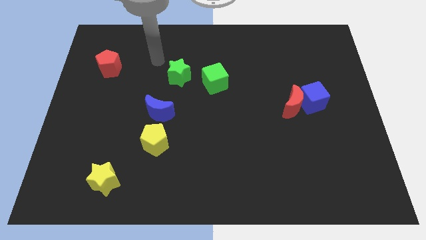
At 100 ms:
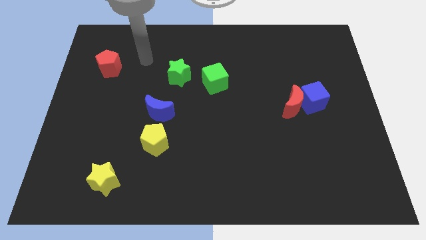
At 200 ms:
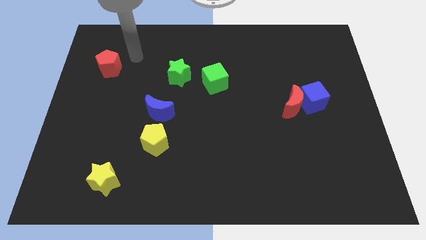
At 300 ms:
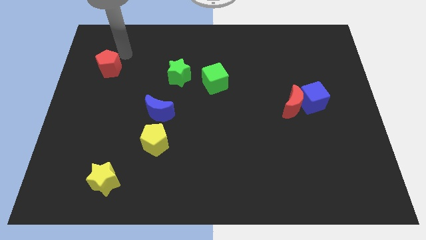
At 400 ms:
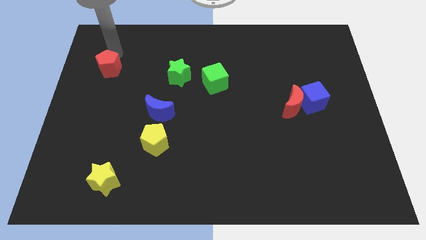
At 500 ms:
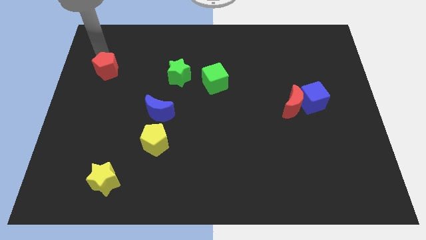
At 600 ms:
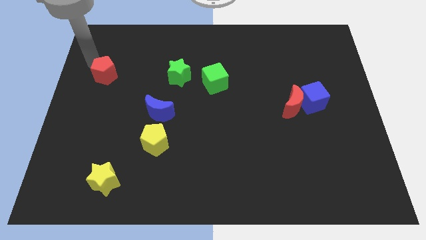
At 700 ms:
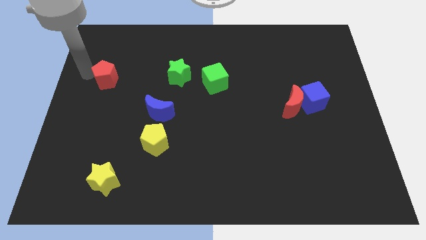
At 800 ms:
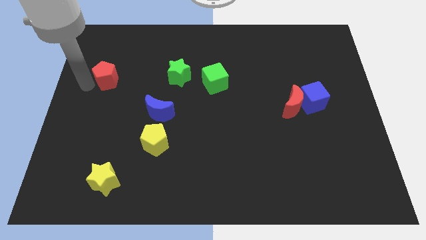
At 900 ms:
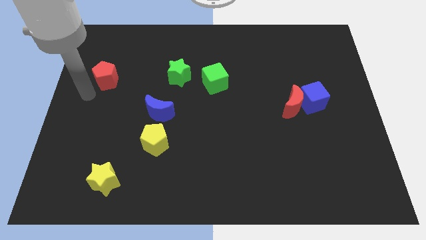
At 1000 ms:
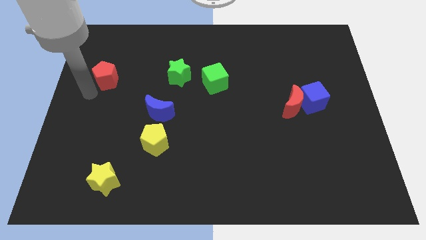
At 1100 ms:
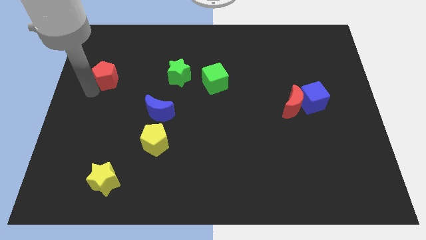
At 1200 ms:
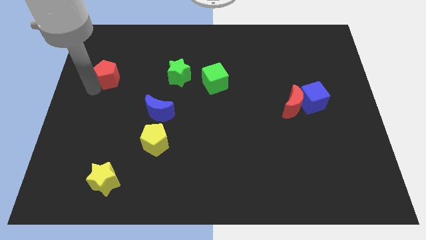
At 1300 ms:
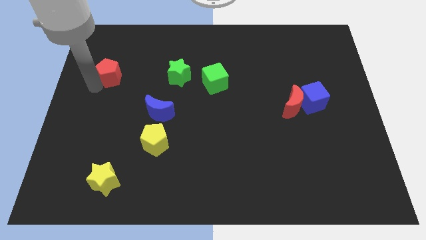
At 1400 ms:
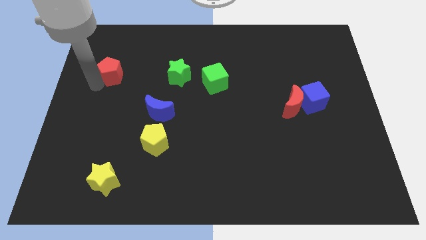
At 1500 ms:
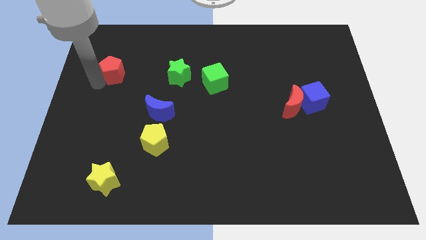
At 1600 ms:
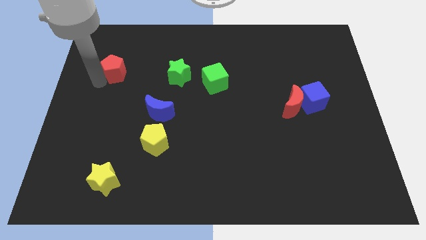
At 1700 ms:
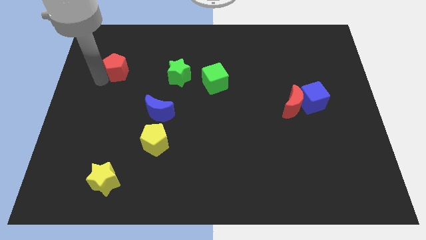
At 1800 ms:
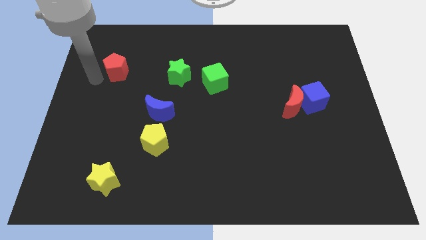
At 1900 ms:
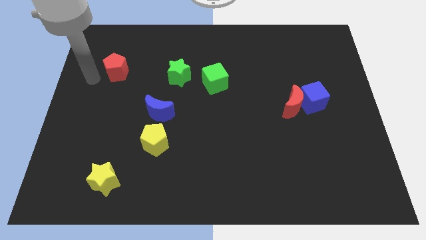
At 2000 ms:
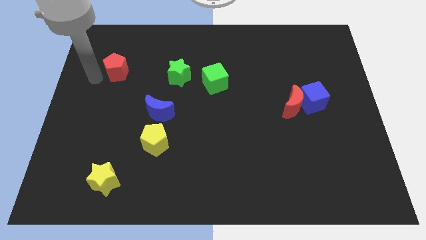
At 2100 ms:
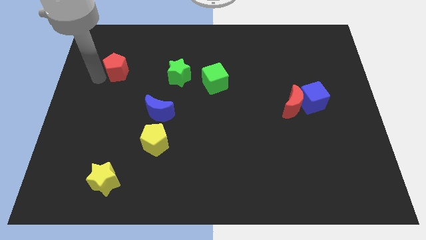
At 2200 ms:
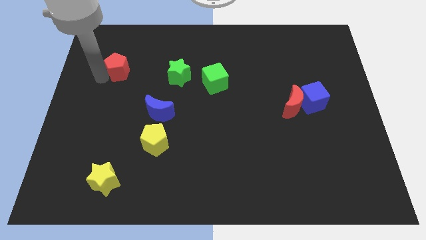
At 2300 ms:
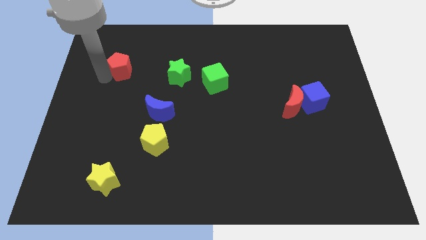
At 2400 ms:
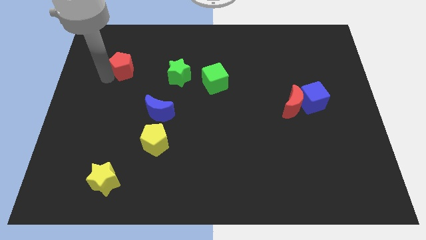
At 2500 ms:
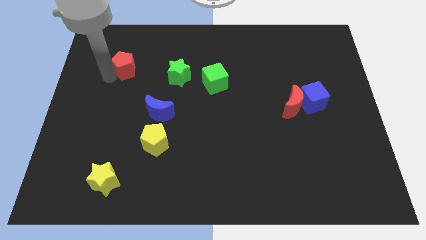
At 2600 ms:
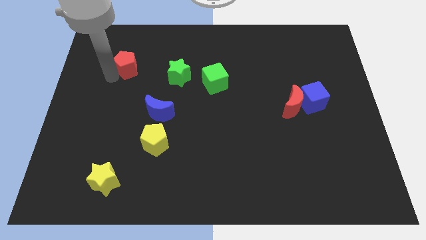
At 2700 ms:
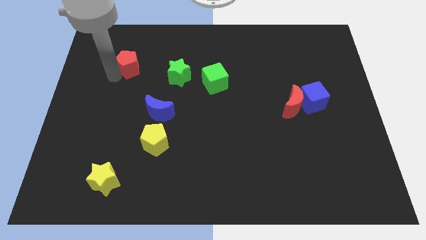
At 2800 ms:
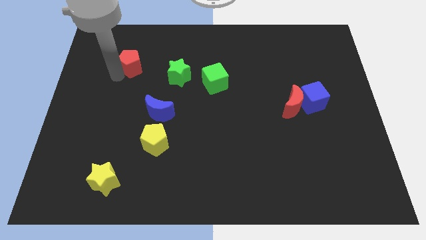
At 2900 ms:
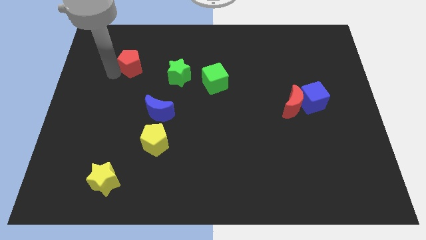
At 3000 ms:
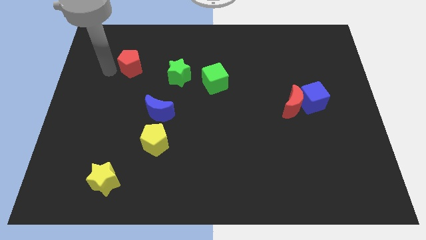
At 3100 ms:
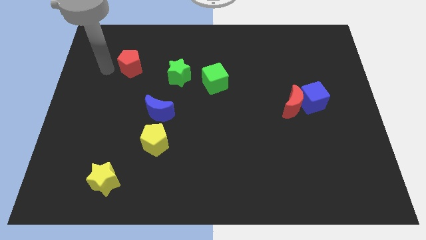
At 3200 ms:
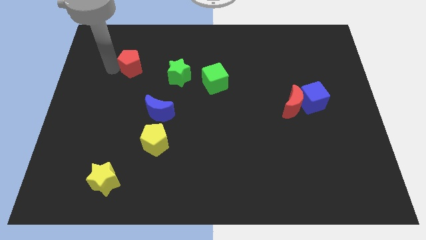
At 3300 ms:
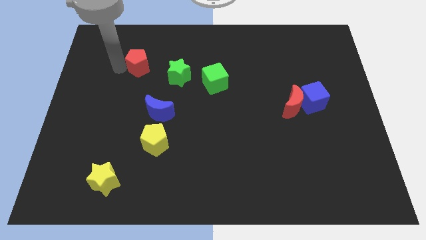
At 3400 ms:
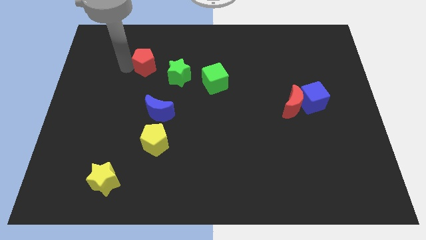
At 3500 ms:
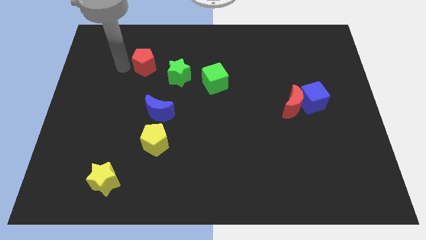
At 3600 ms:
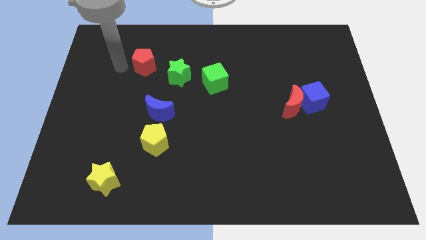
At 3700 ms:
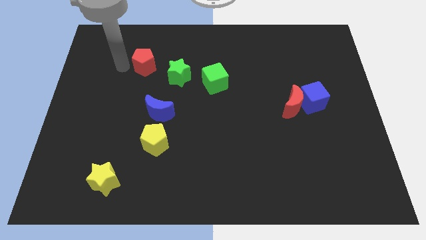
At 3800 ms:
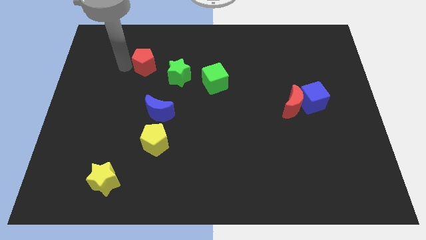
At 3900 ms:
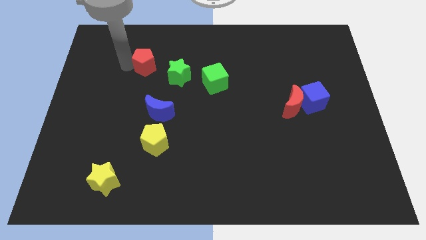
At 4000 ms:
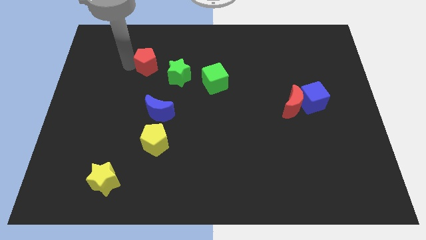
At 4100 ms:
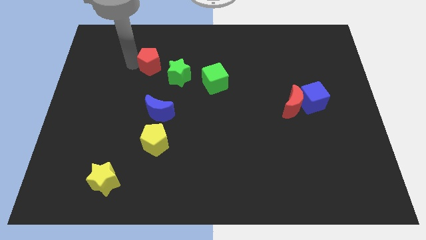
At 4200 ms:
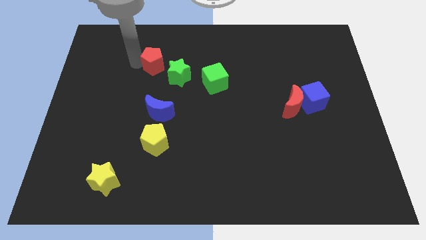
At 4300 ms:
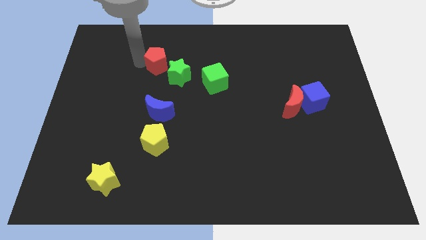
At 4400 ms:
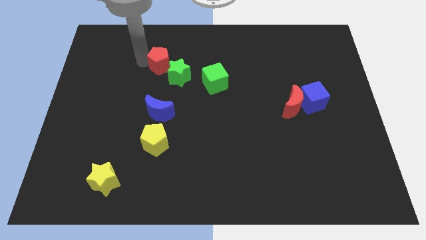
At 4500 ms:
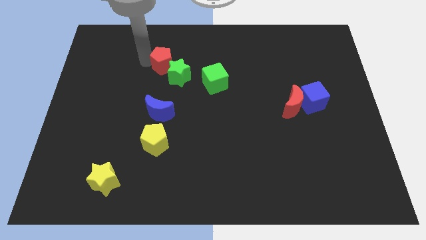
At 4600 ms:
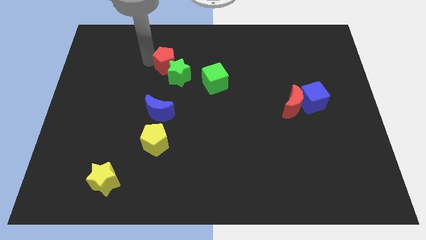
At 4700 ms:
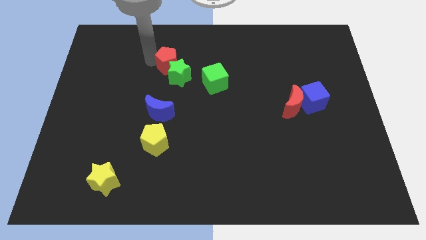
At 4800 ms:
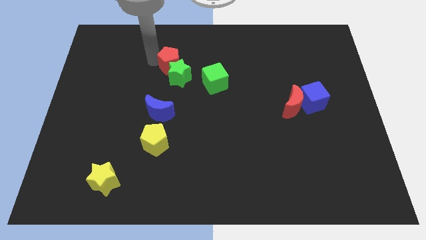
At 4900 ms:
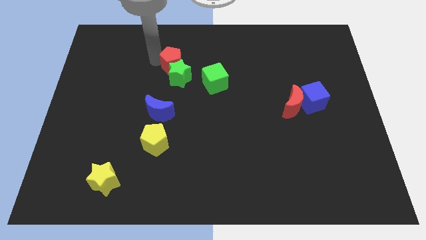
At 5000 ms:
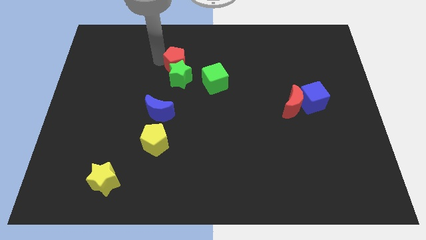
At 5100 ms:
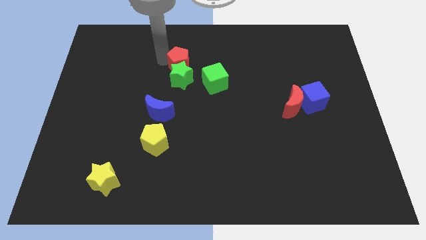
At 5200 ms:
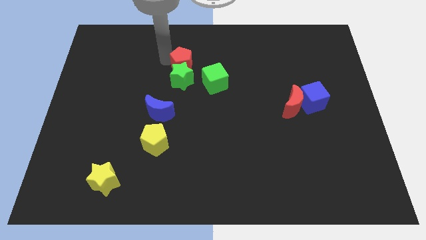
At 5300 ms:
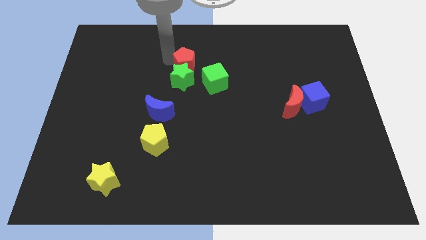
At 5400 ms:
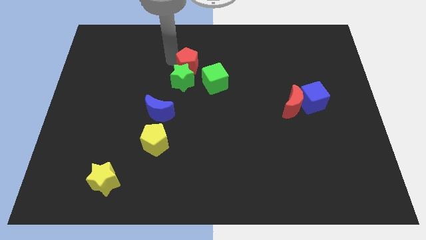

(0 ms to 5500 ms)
move the red pentagon right

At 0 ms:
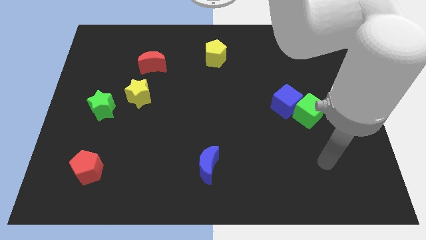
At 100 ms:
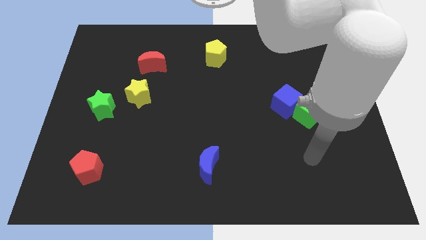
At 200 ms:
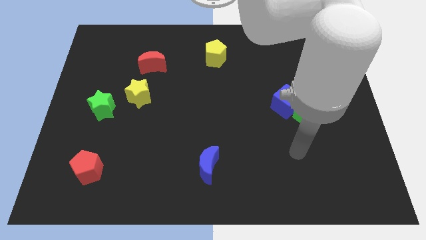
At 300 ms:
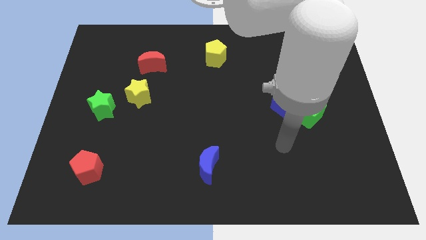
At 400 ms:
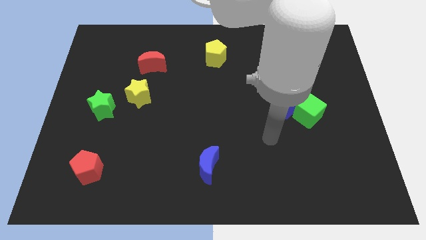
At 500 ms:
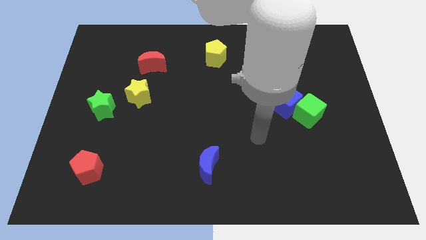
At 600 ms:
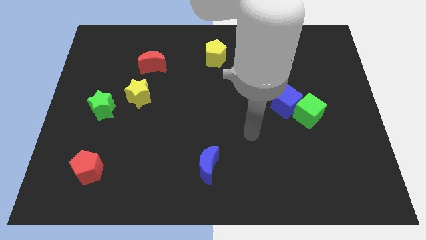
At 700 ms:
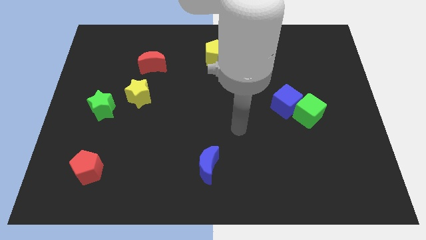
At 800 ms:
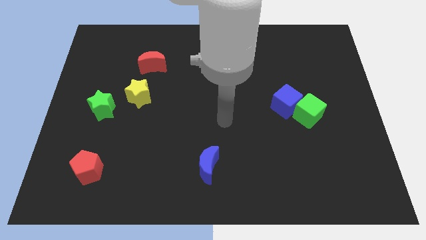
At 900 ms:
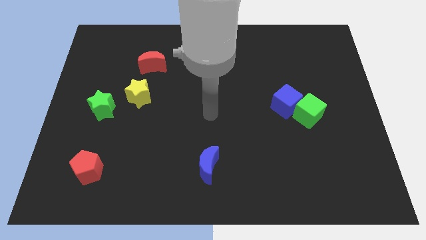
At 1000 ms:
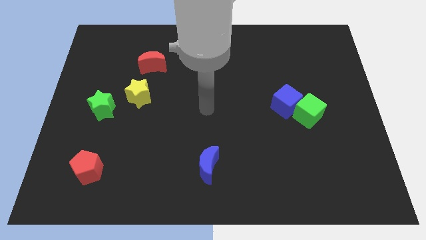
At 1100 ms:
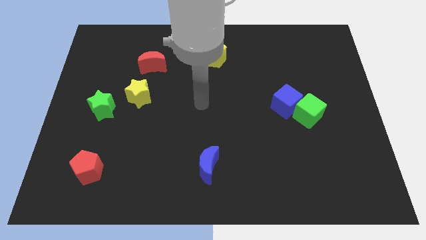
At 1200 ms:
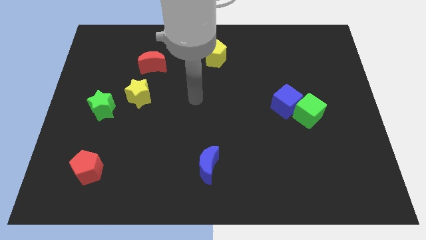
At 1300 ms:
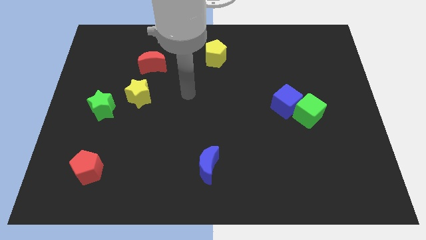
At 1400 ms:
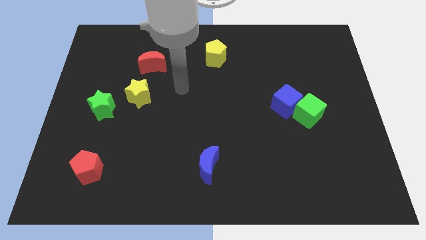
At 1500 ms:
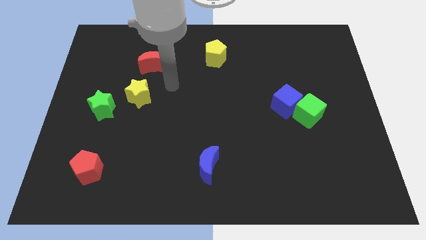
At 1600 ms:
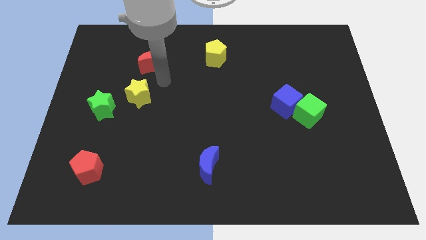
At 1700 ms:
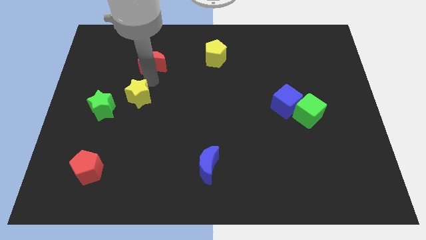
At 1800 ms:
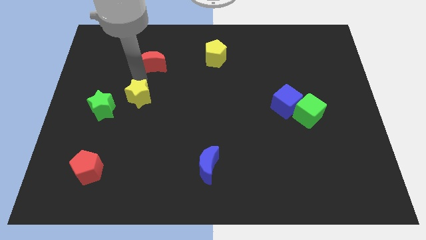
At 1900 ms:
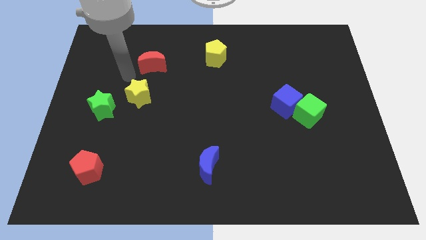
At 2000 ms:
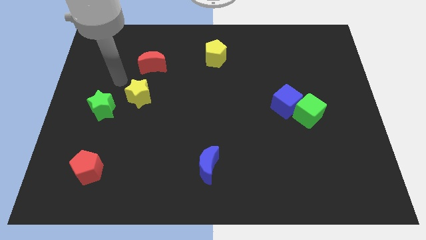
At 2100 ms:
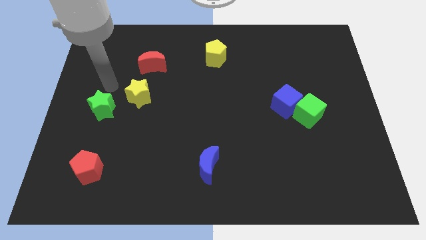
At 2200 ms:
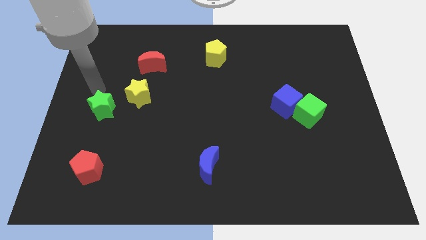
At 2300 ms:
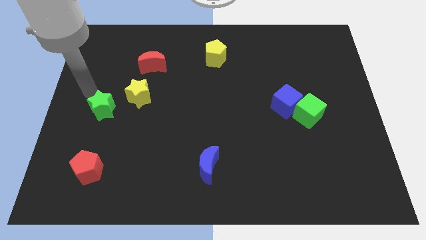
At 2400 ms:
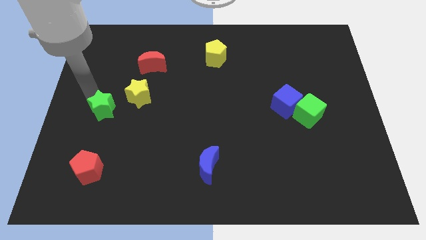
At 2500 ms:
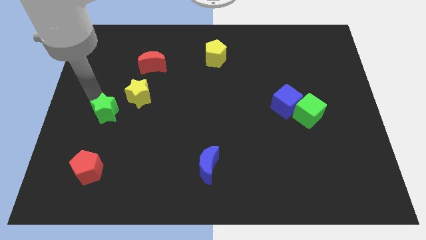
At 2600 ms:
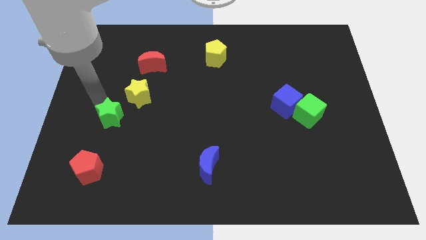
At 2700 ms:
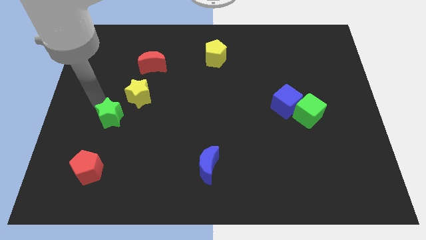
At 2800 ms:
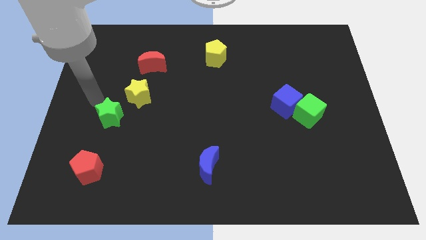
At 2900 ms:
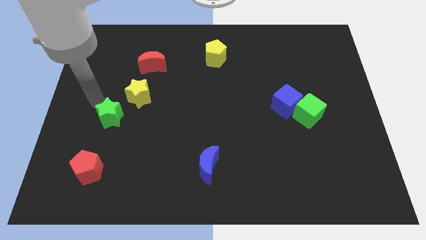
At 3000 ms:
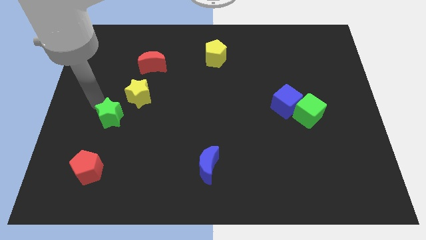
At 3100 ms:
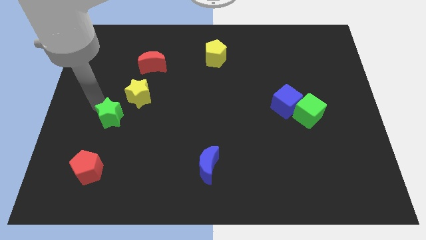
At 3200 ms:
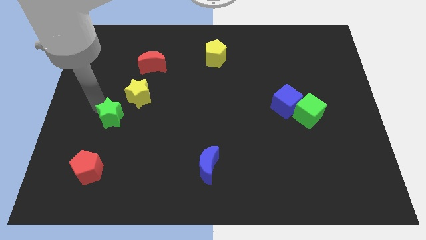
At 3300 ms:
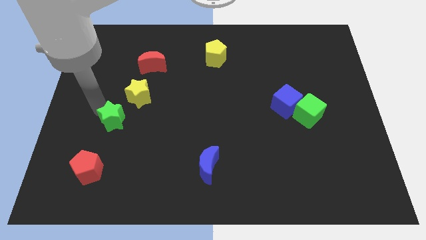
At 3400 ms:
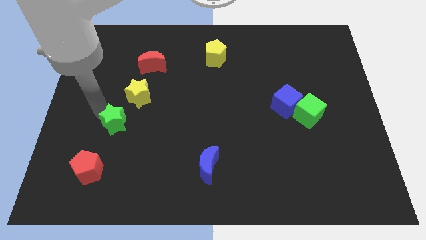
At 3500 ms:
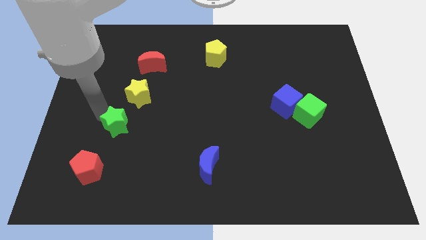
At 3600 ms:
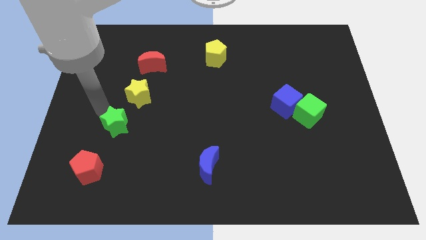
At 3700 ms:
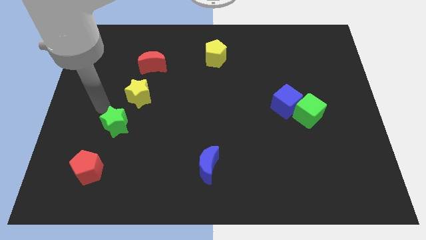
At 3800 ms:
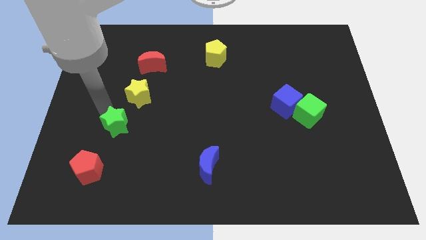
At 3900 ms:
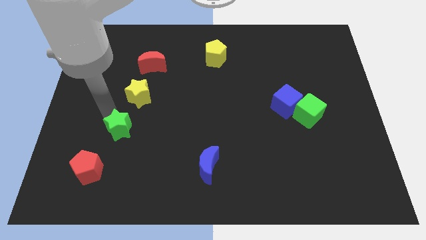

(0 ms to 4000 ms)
slightly slide the green star down and then to the right
